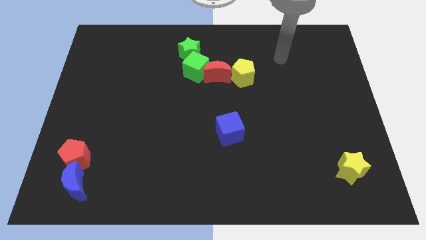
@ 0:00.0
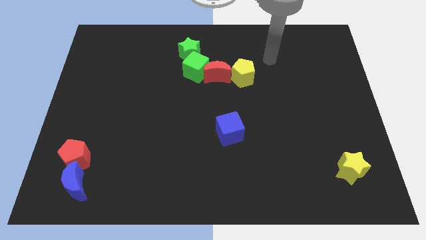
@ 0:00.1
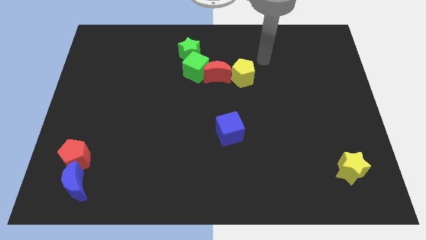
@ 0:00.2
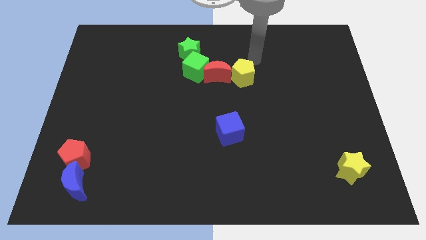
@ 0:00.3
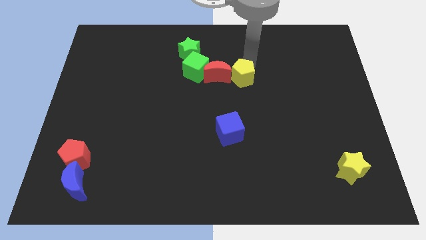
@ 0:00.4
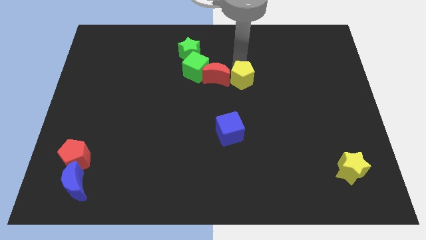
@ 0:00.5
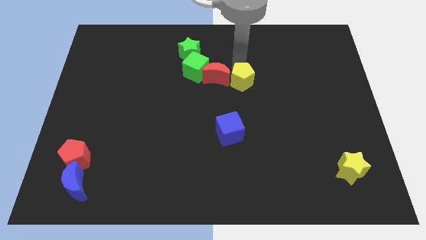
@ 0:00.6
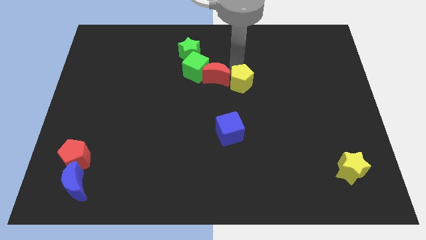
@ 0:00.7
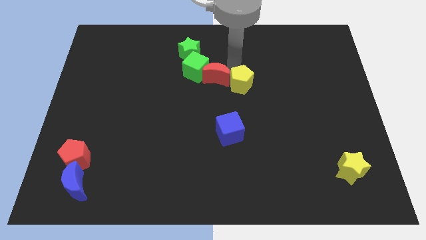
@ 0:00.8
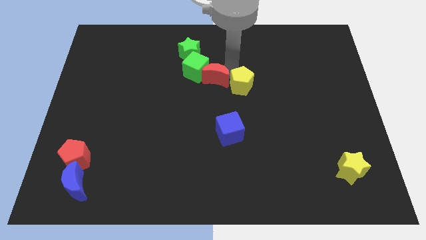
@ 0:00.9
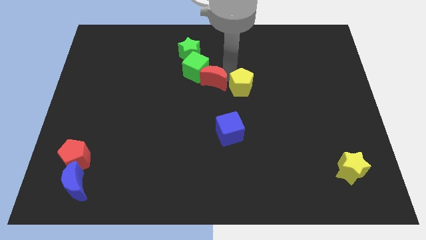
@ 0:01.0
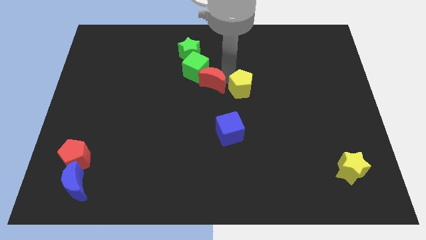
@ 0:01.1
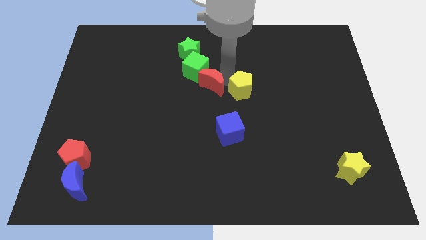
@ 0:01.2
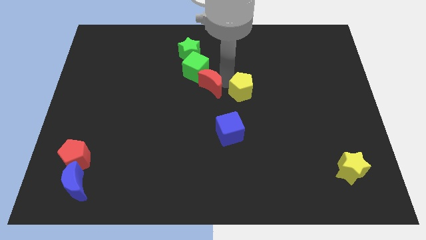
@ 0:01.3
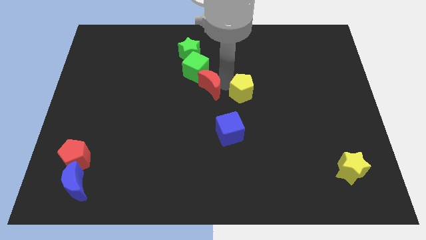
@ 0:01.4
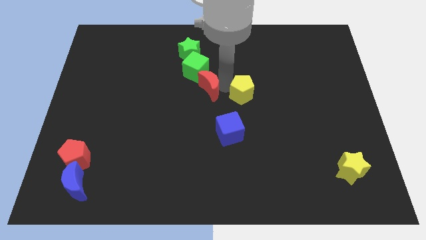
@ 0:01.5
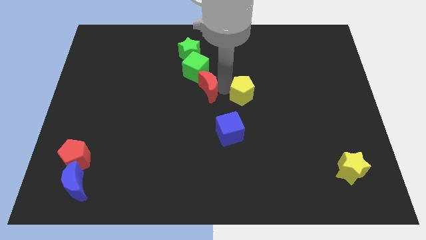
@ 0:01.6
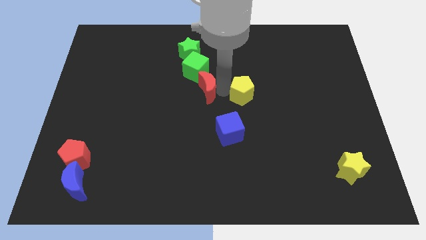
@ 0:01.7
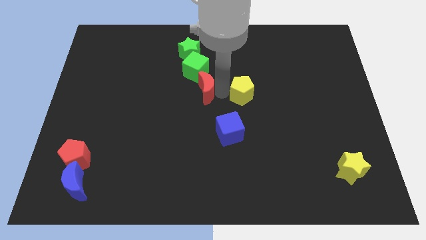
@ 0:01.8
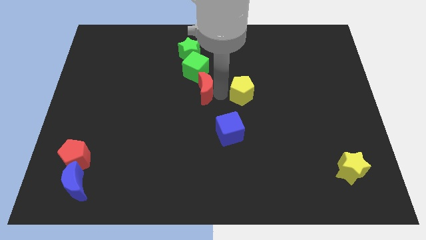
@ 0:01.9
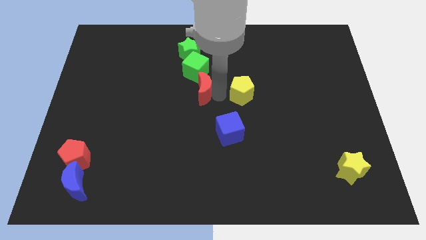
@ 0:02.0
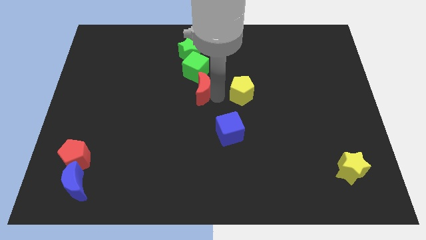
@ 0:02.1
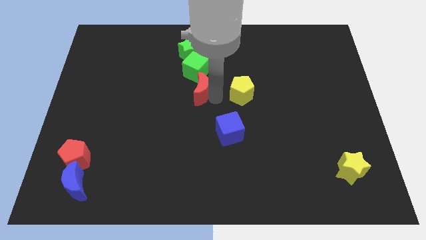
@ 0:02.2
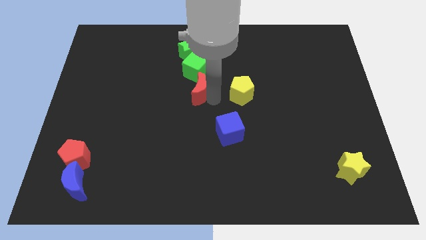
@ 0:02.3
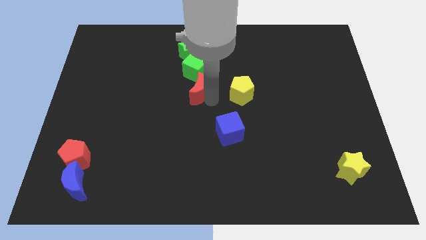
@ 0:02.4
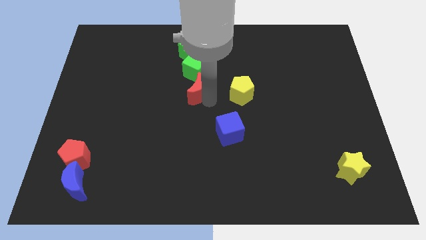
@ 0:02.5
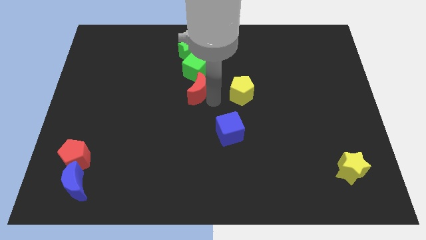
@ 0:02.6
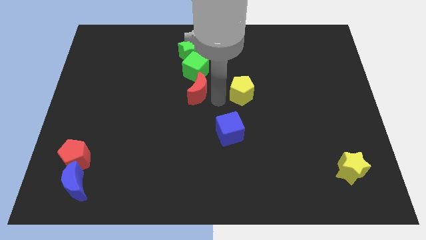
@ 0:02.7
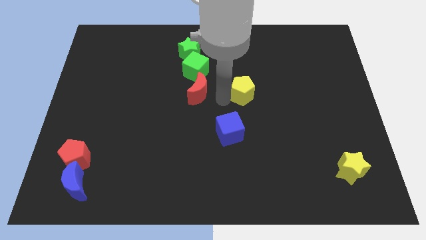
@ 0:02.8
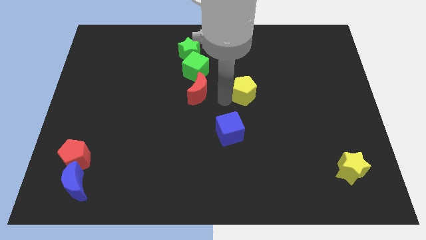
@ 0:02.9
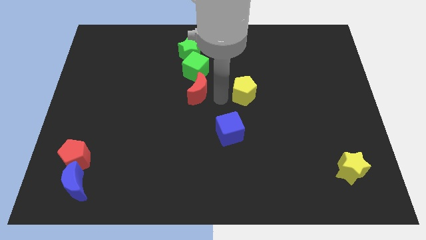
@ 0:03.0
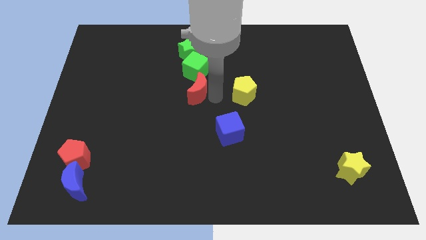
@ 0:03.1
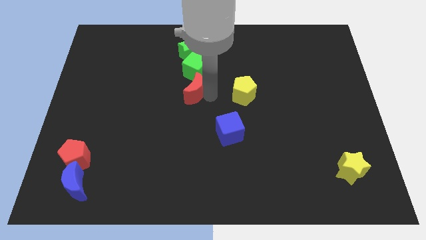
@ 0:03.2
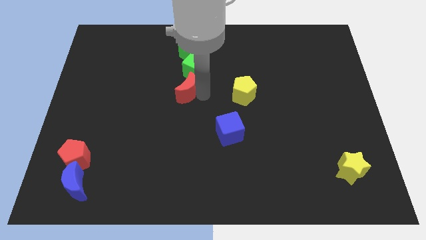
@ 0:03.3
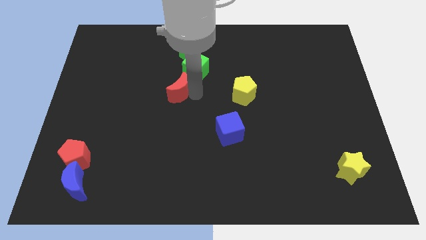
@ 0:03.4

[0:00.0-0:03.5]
slightly move the red moon left

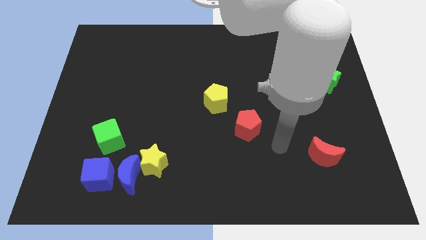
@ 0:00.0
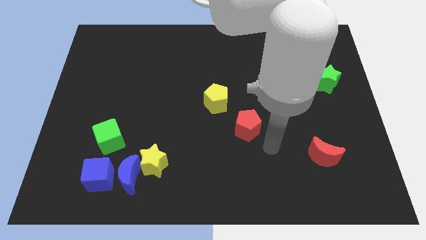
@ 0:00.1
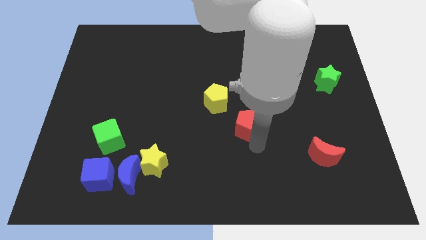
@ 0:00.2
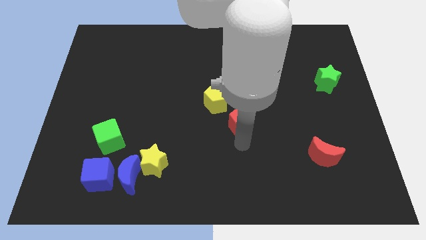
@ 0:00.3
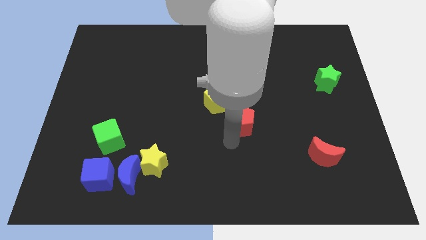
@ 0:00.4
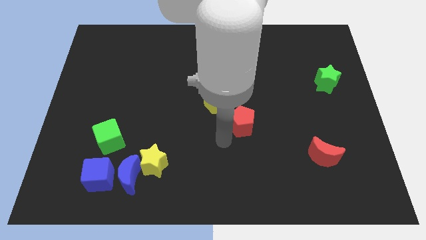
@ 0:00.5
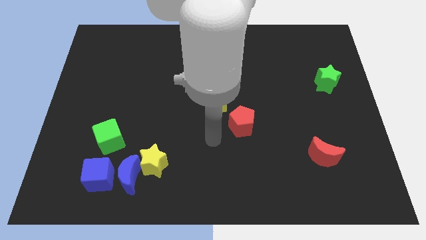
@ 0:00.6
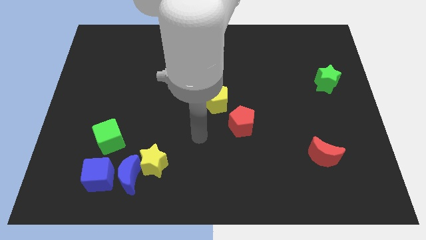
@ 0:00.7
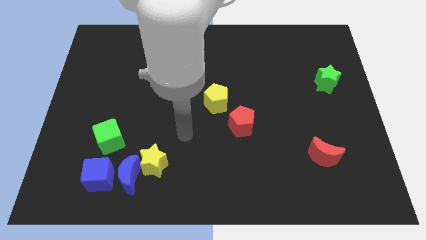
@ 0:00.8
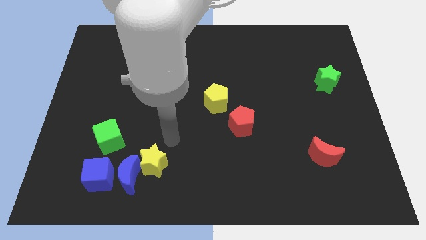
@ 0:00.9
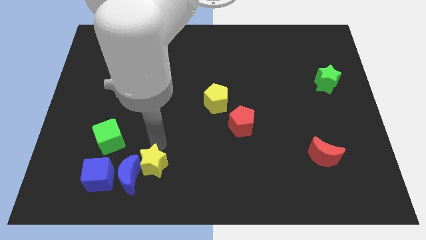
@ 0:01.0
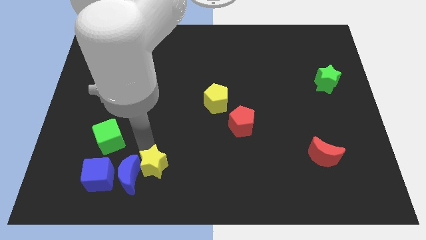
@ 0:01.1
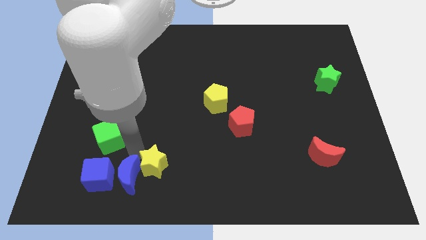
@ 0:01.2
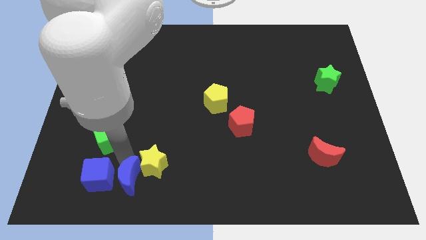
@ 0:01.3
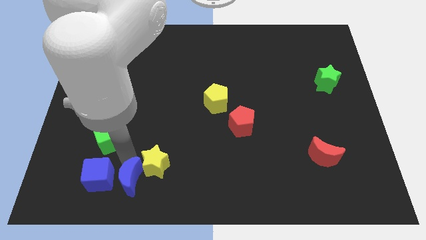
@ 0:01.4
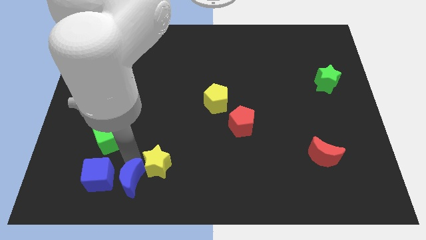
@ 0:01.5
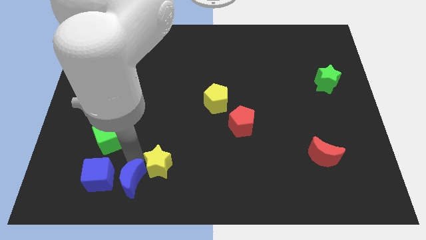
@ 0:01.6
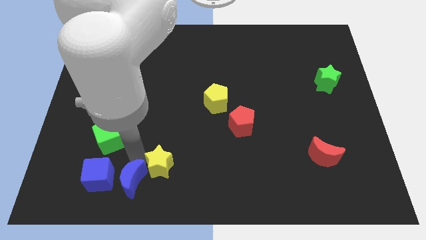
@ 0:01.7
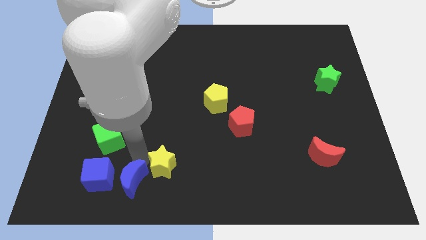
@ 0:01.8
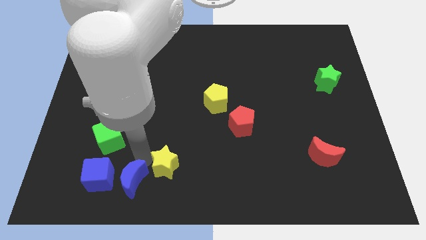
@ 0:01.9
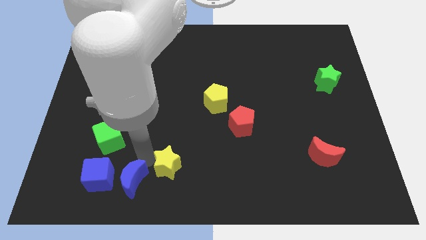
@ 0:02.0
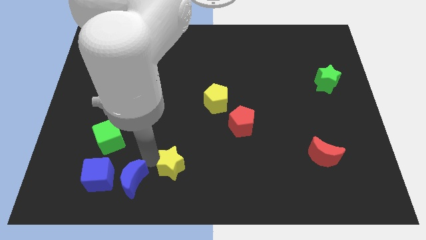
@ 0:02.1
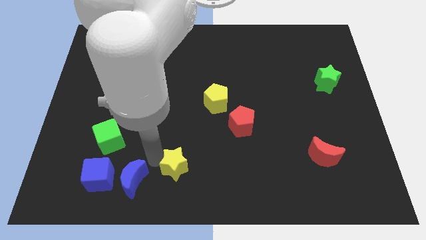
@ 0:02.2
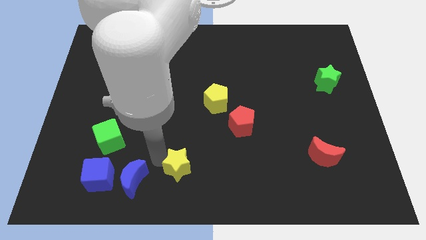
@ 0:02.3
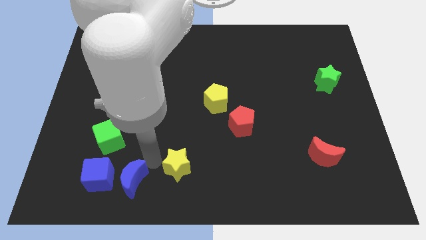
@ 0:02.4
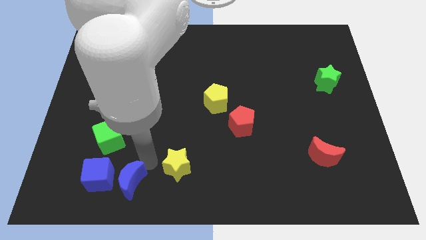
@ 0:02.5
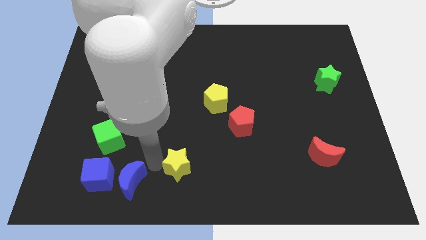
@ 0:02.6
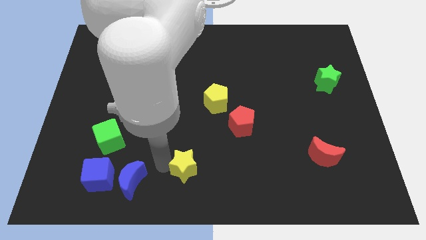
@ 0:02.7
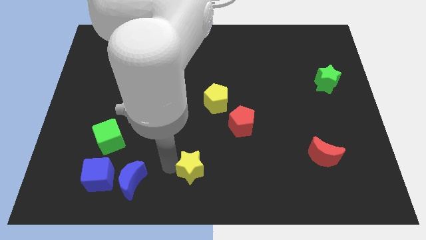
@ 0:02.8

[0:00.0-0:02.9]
move the yellow star slightly to the right

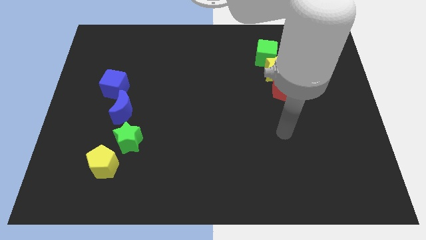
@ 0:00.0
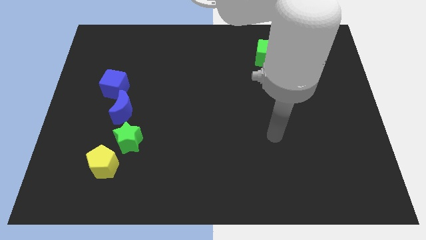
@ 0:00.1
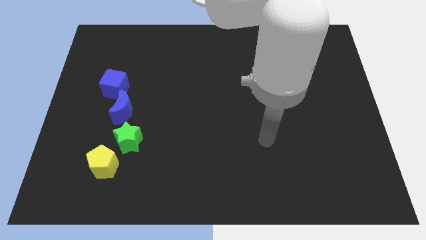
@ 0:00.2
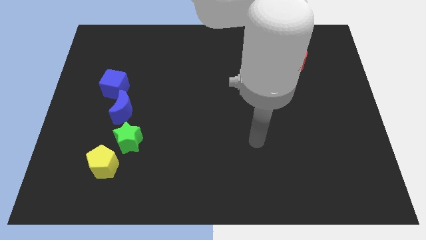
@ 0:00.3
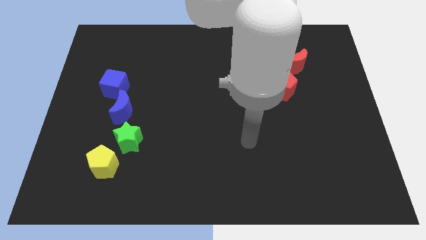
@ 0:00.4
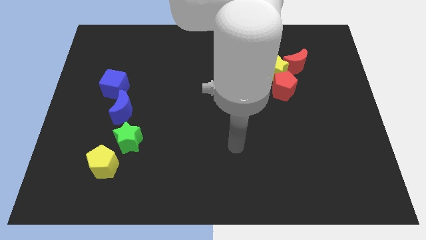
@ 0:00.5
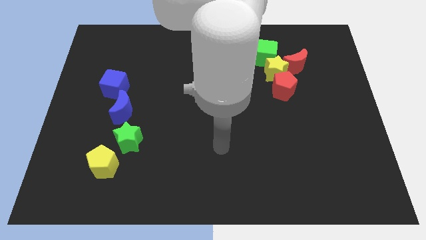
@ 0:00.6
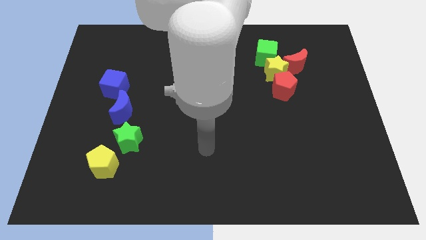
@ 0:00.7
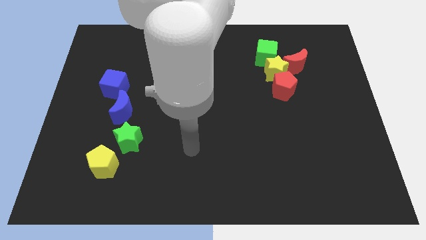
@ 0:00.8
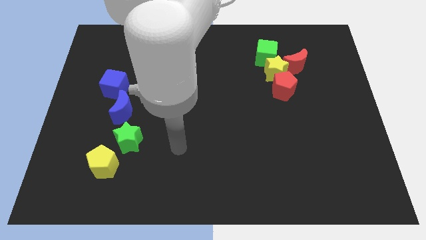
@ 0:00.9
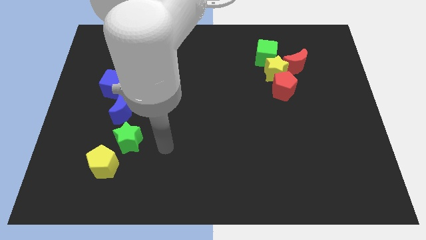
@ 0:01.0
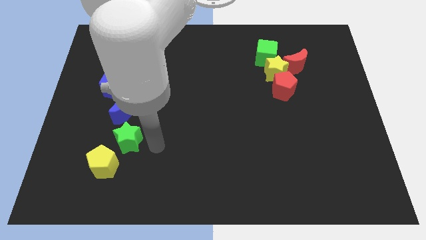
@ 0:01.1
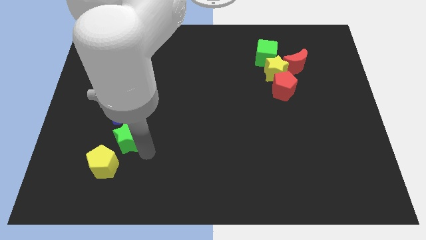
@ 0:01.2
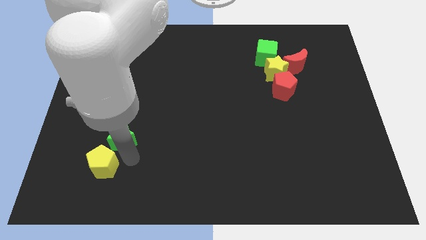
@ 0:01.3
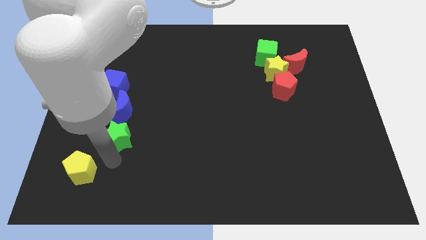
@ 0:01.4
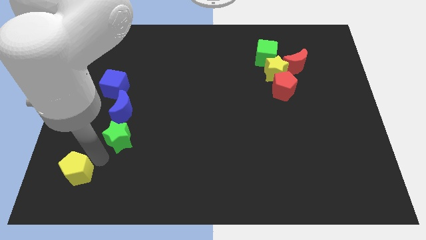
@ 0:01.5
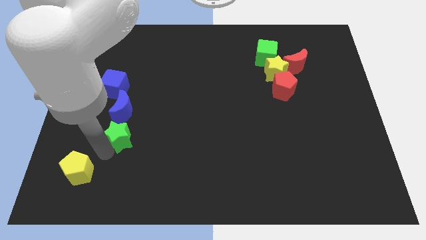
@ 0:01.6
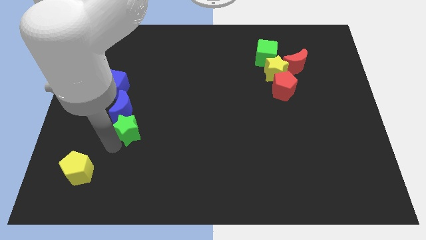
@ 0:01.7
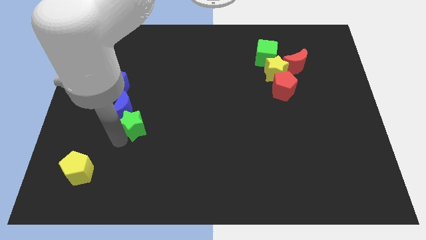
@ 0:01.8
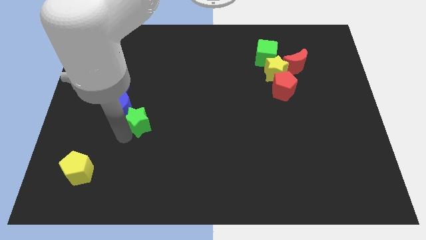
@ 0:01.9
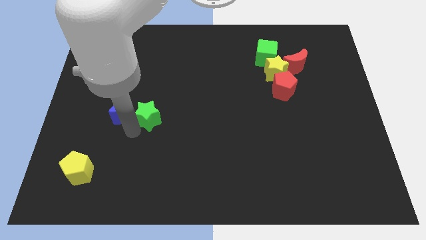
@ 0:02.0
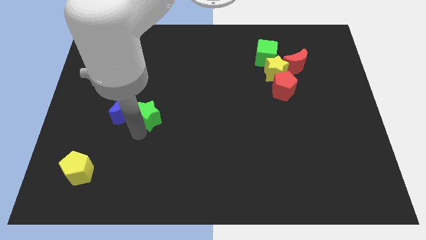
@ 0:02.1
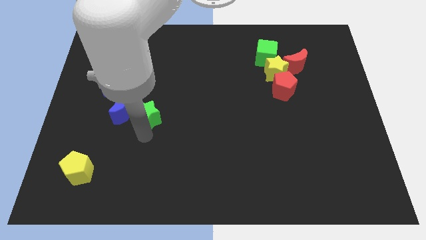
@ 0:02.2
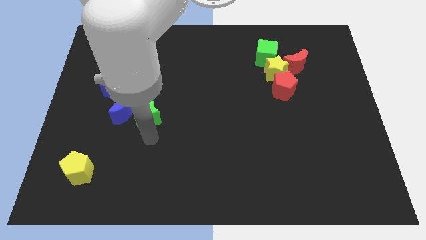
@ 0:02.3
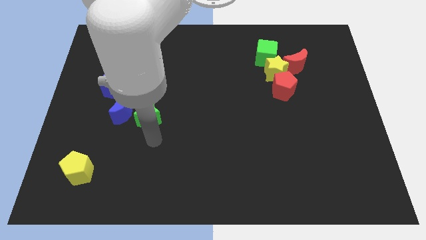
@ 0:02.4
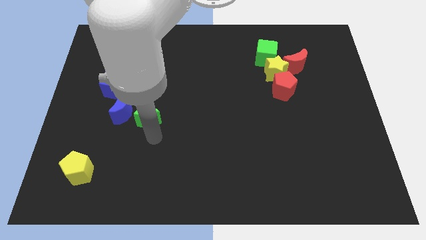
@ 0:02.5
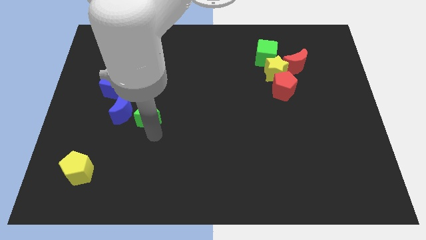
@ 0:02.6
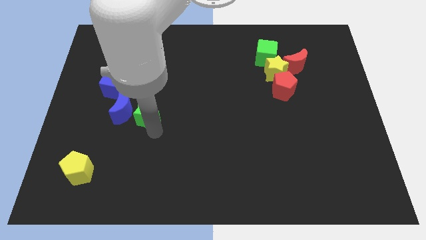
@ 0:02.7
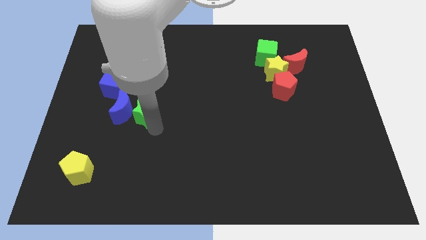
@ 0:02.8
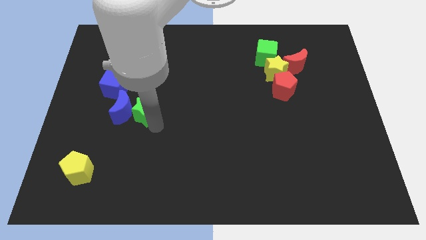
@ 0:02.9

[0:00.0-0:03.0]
move the green star a little bit upwards
